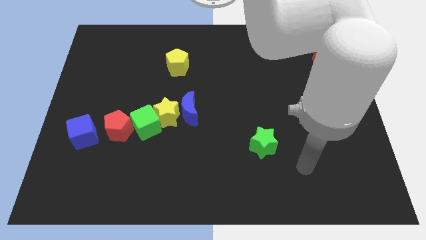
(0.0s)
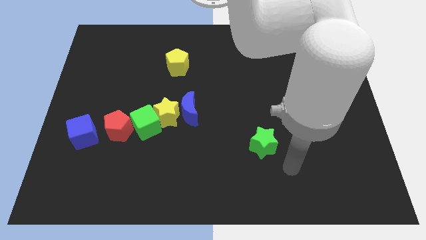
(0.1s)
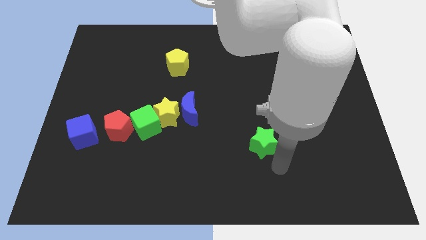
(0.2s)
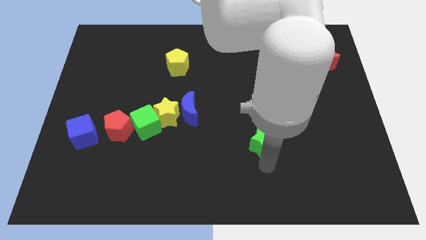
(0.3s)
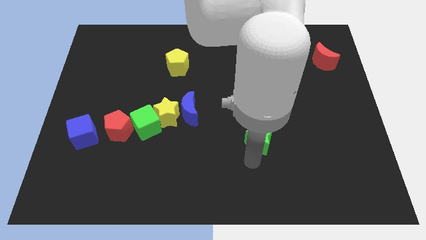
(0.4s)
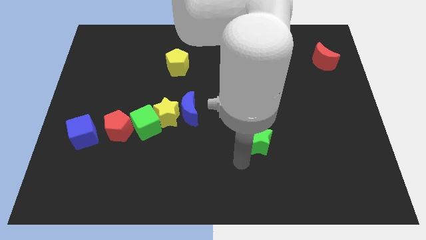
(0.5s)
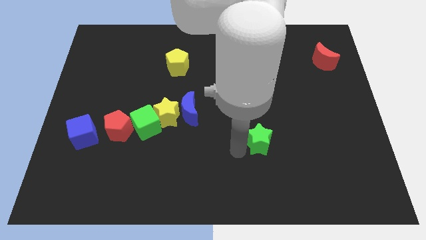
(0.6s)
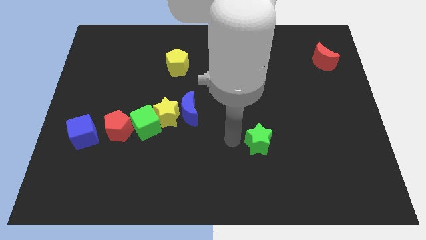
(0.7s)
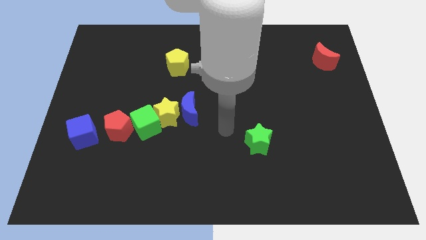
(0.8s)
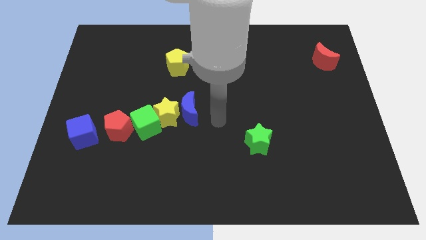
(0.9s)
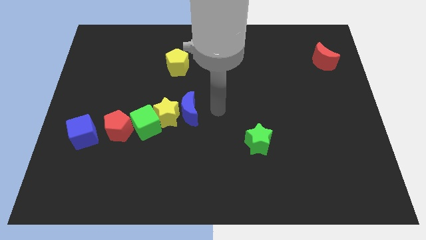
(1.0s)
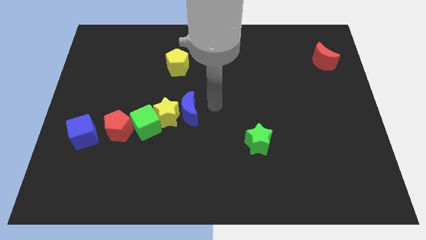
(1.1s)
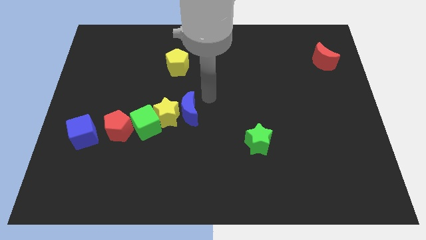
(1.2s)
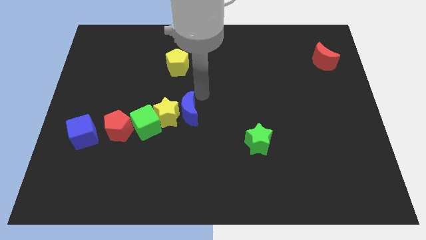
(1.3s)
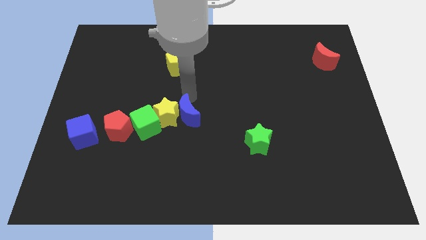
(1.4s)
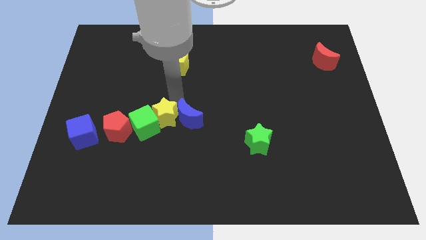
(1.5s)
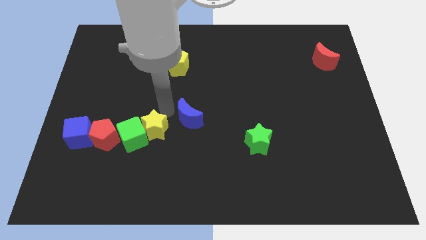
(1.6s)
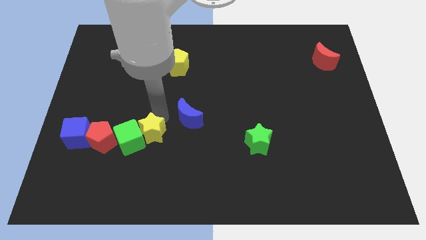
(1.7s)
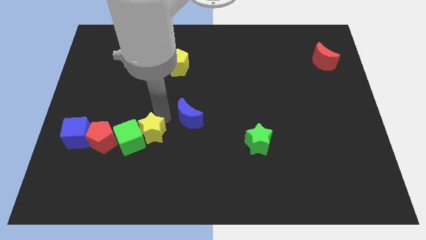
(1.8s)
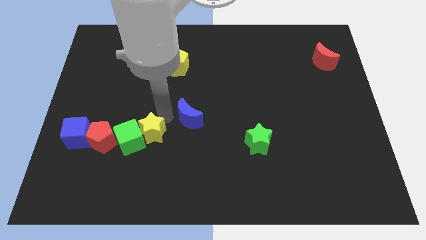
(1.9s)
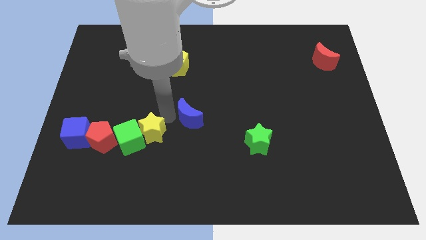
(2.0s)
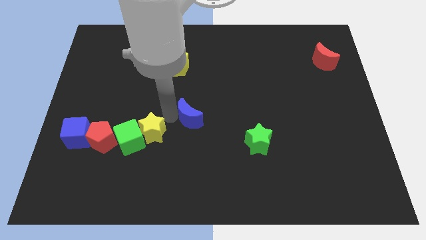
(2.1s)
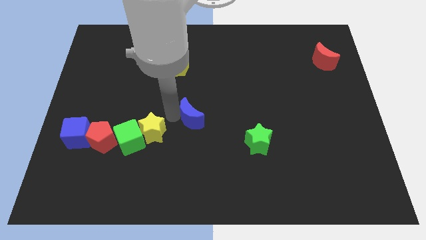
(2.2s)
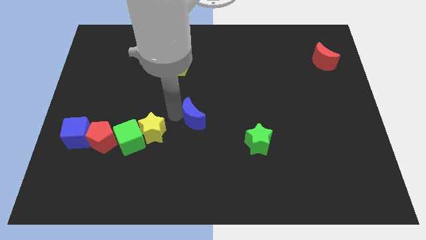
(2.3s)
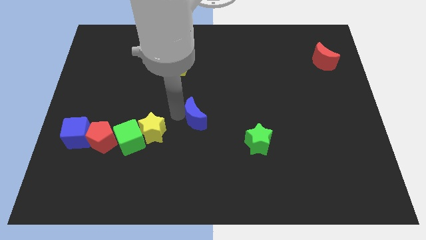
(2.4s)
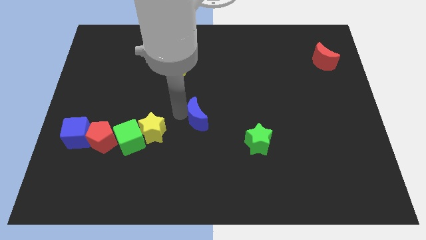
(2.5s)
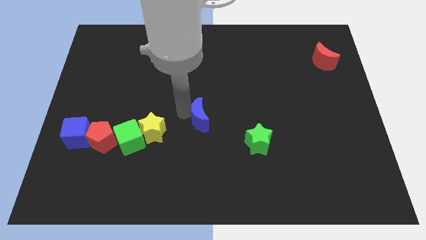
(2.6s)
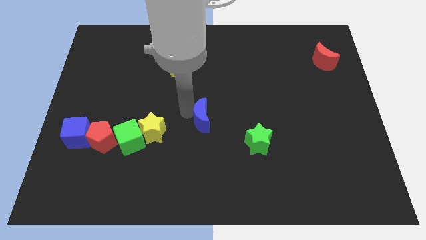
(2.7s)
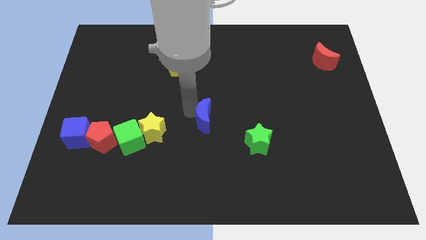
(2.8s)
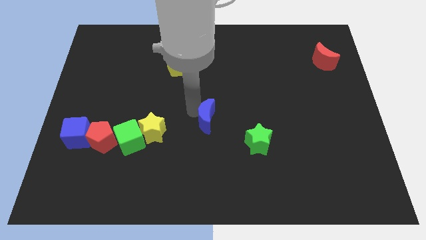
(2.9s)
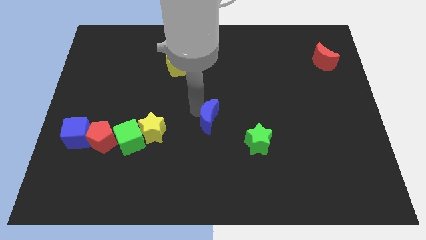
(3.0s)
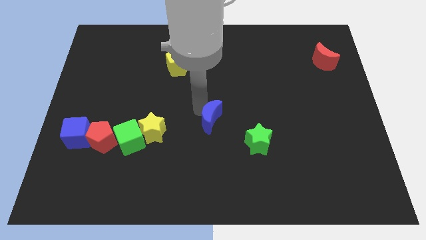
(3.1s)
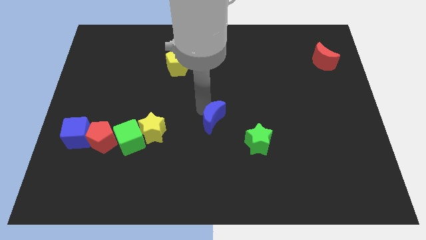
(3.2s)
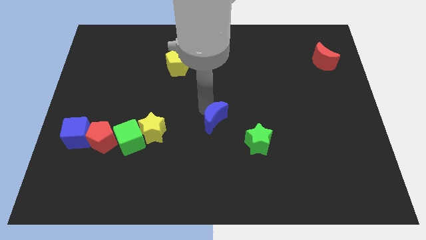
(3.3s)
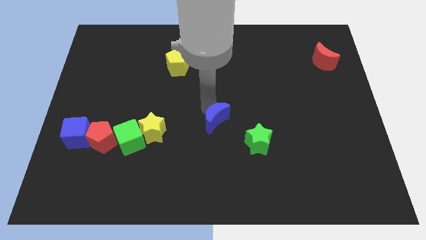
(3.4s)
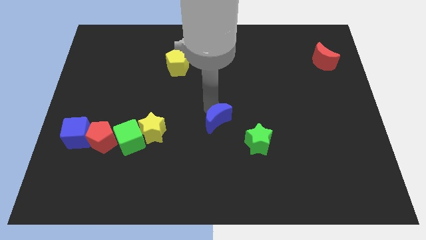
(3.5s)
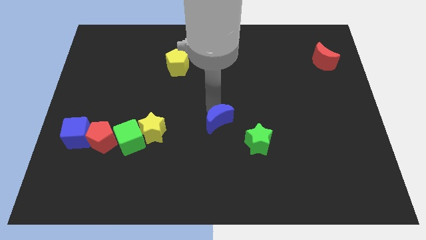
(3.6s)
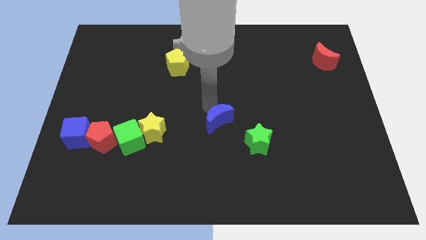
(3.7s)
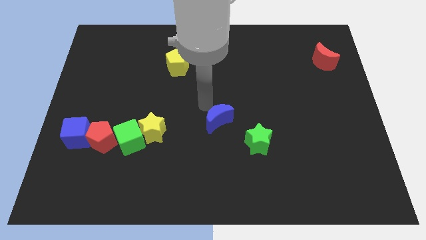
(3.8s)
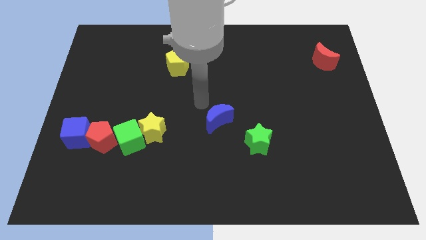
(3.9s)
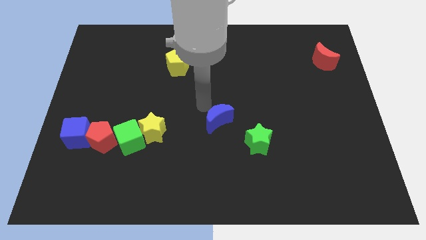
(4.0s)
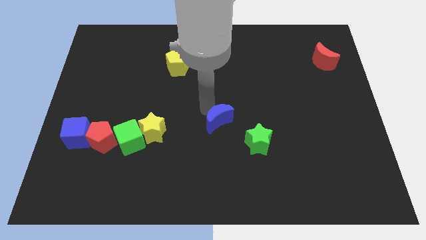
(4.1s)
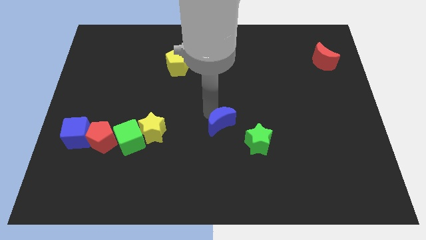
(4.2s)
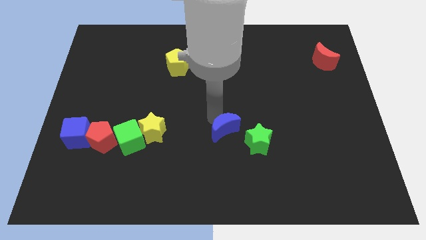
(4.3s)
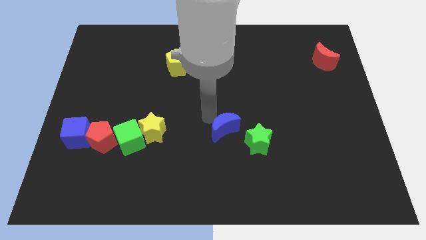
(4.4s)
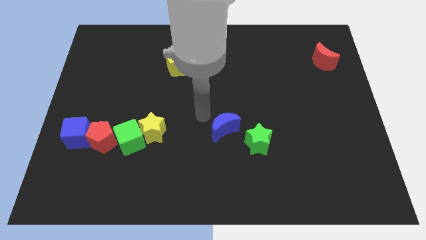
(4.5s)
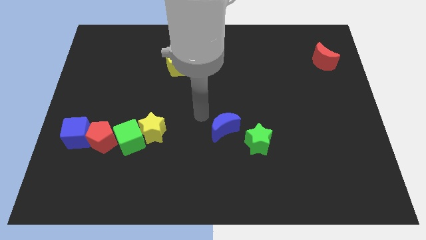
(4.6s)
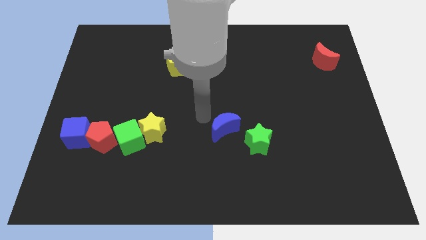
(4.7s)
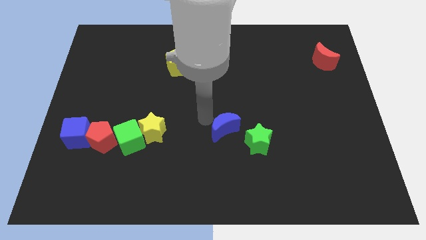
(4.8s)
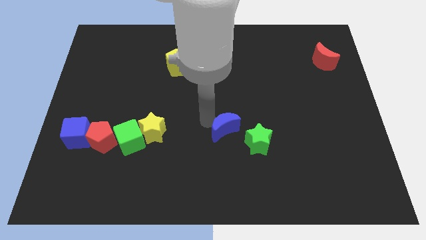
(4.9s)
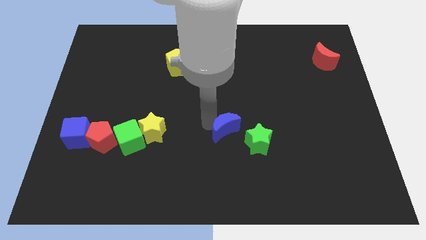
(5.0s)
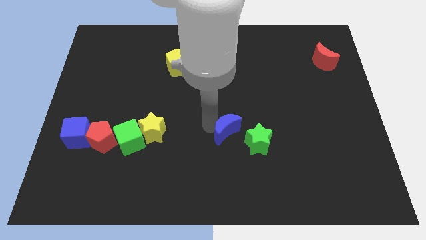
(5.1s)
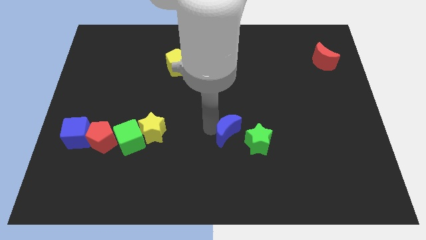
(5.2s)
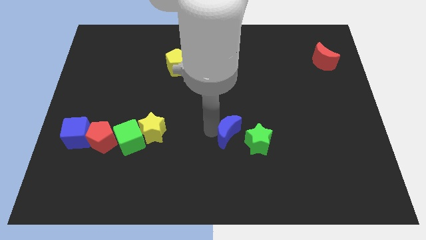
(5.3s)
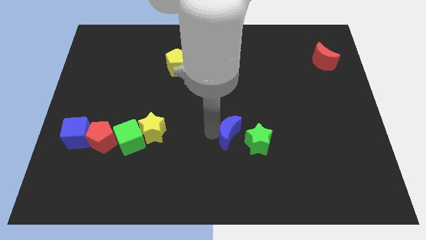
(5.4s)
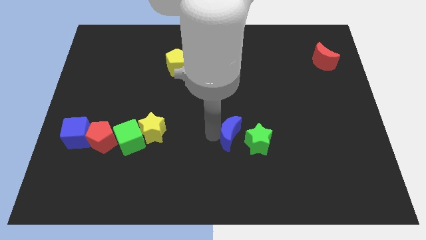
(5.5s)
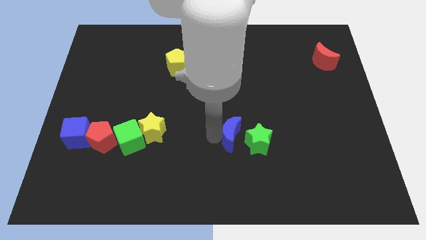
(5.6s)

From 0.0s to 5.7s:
move the blue moon next to the green star

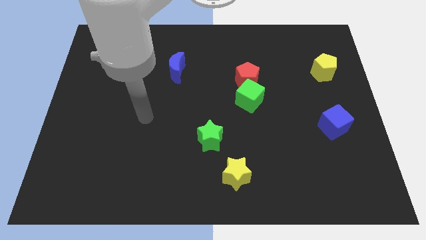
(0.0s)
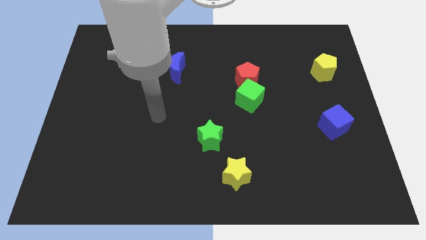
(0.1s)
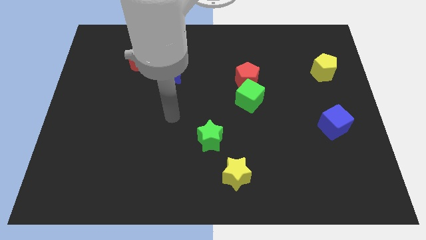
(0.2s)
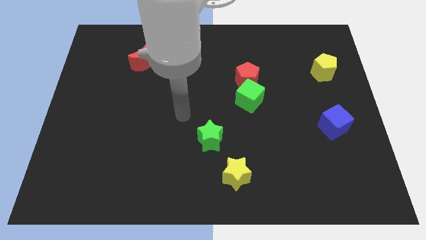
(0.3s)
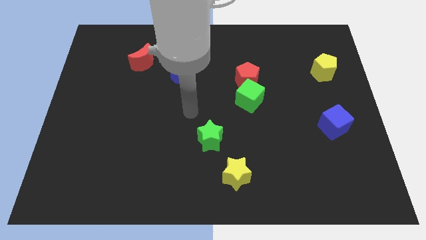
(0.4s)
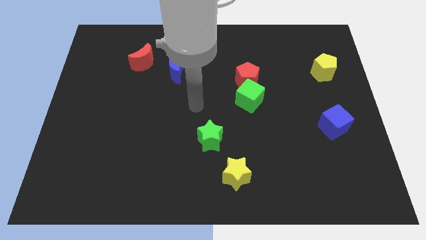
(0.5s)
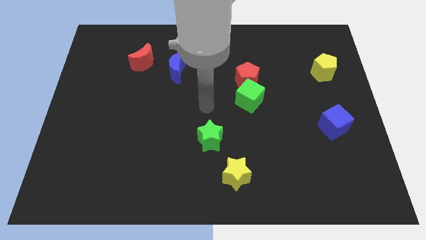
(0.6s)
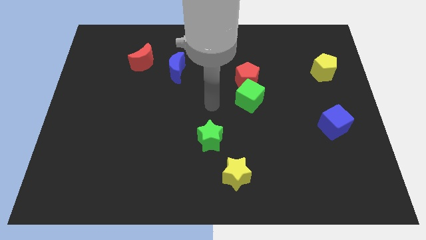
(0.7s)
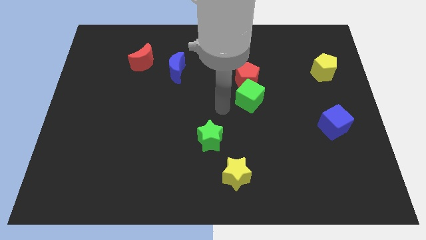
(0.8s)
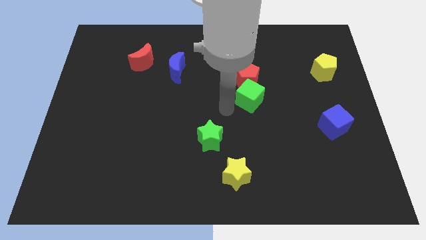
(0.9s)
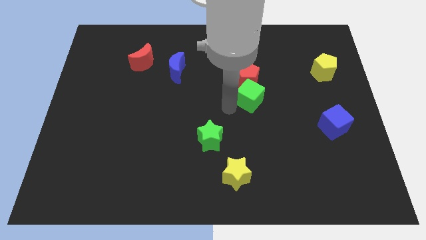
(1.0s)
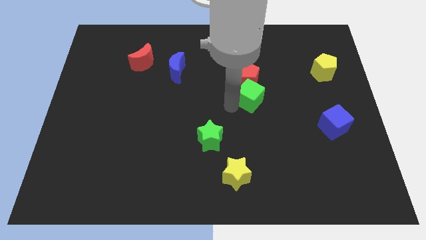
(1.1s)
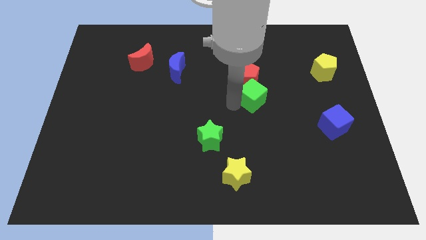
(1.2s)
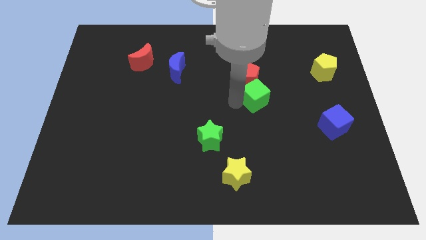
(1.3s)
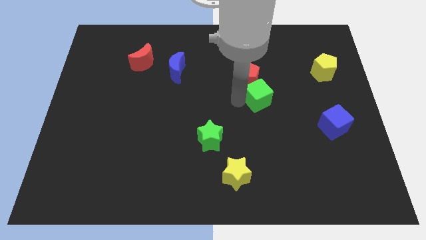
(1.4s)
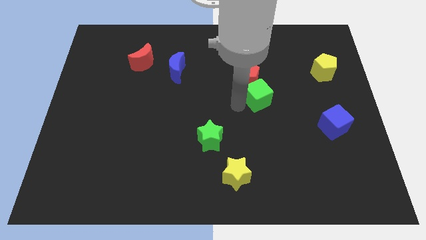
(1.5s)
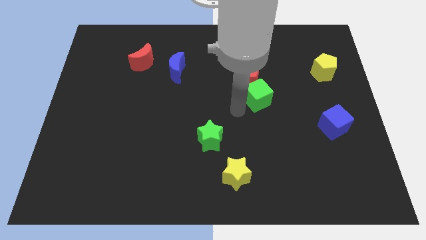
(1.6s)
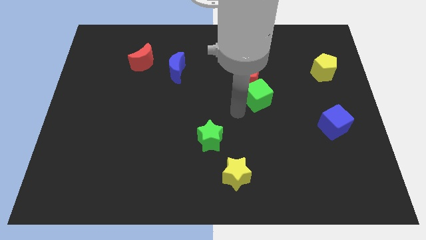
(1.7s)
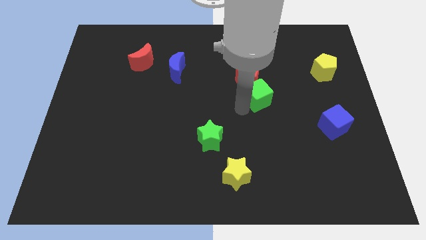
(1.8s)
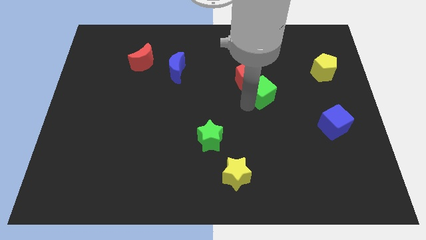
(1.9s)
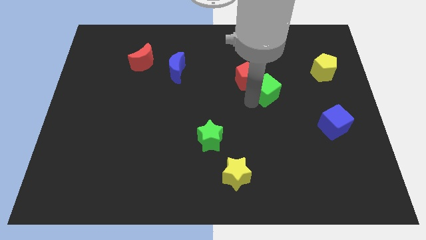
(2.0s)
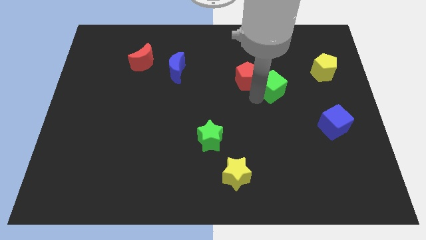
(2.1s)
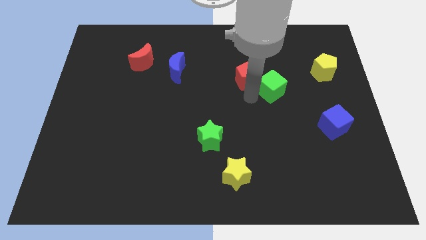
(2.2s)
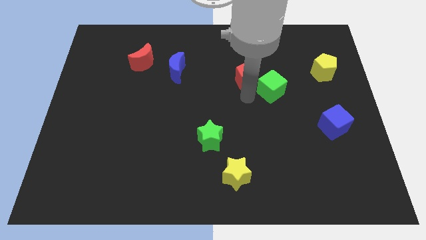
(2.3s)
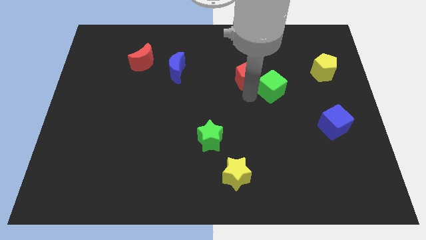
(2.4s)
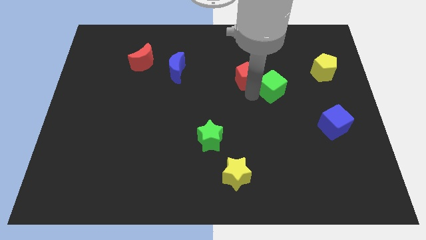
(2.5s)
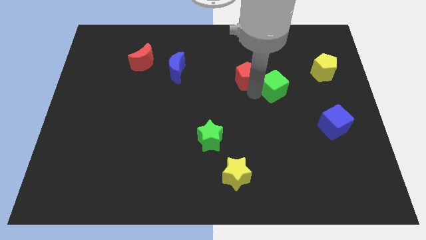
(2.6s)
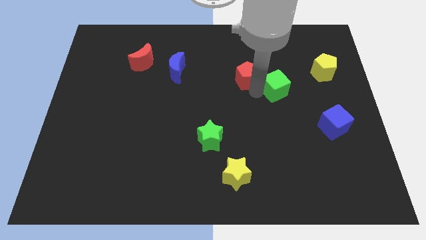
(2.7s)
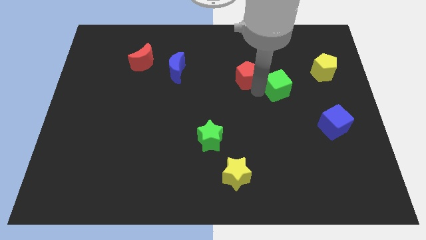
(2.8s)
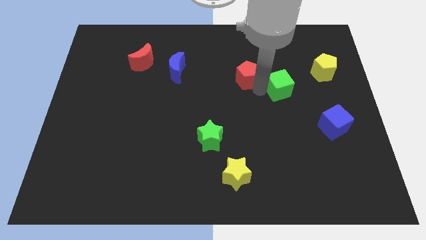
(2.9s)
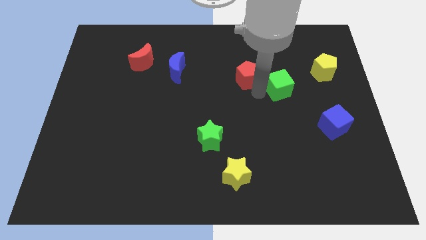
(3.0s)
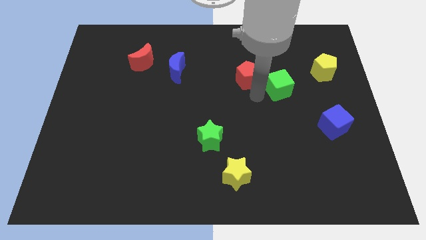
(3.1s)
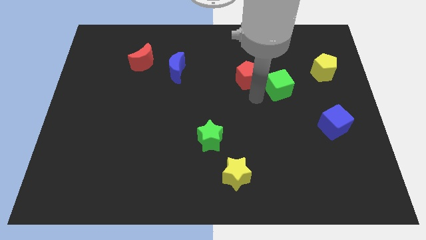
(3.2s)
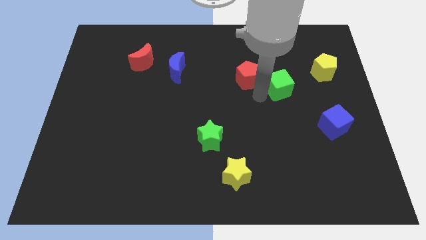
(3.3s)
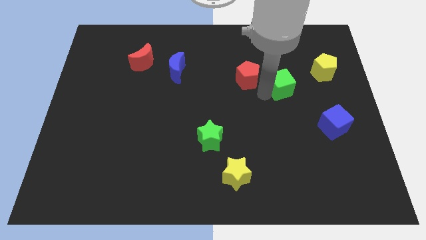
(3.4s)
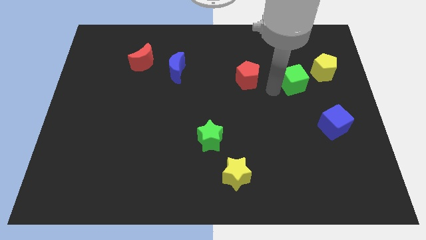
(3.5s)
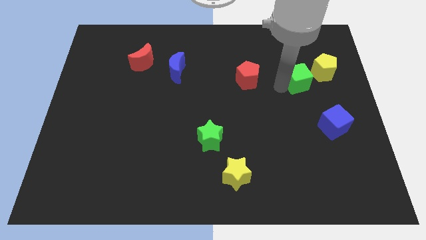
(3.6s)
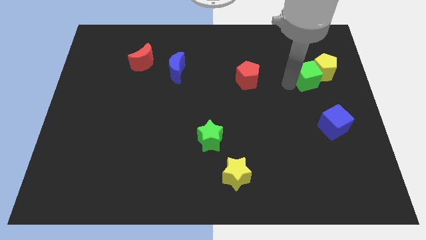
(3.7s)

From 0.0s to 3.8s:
push the green cube close to the yellow pentagon
